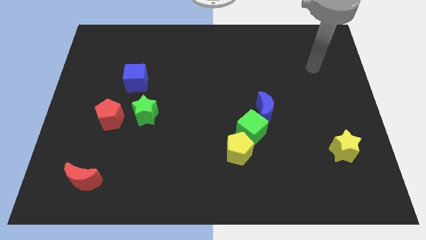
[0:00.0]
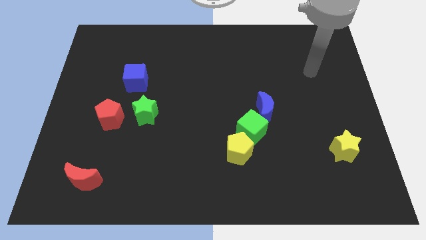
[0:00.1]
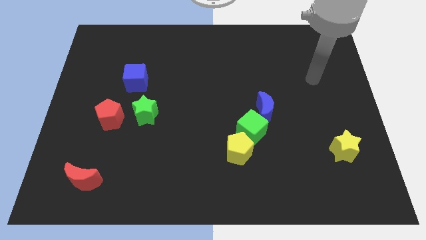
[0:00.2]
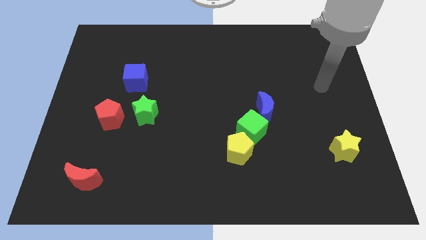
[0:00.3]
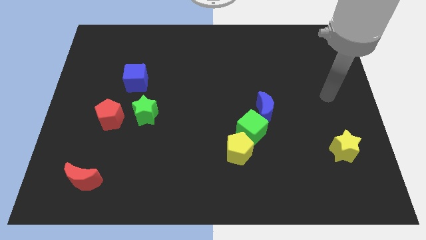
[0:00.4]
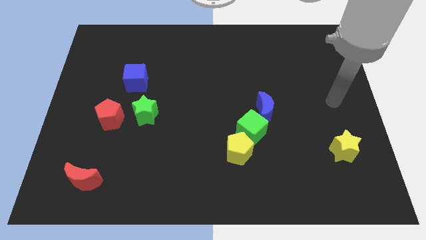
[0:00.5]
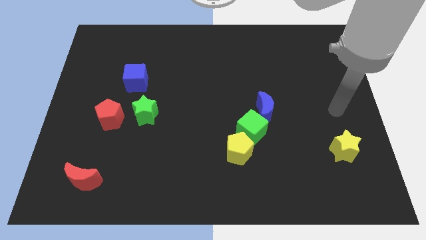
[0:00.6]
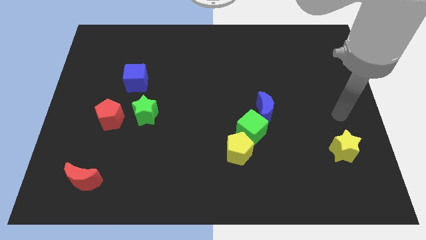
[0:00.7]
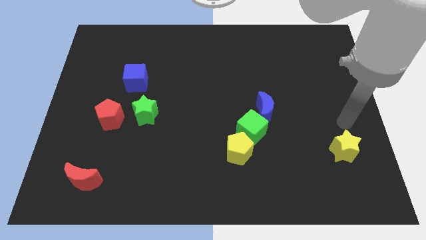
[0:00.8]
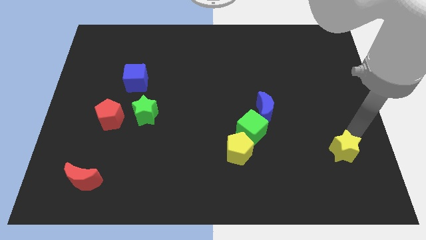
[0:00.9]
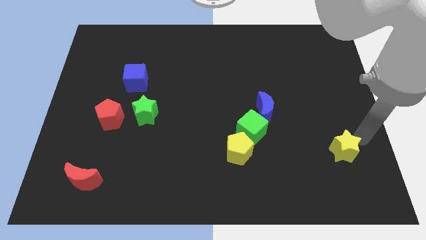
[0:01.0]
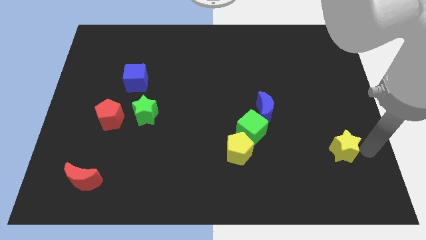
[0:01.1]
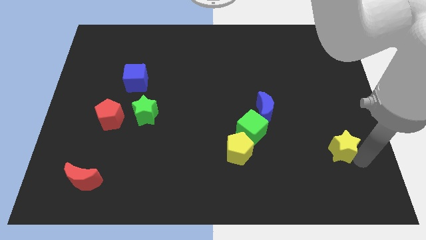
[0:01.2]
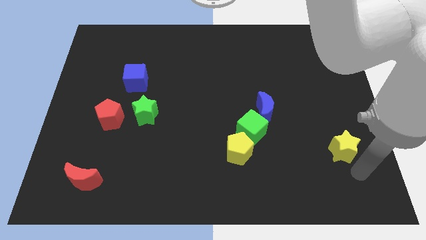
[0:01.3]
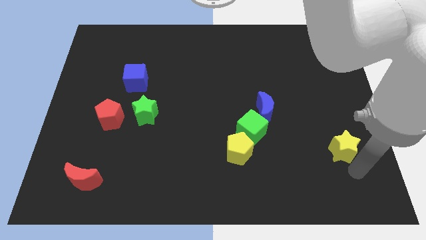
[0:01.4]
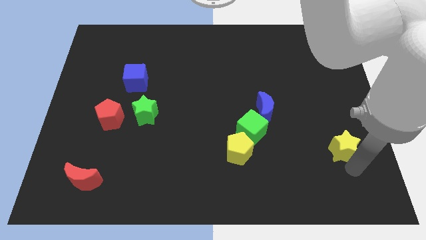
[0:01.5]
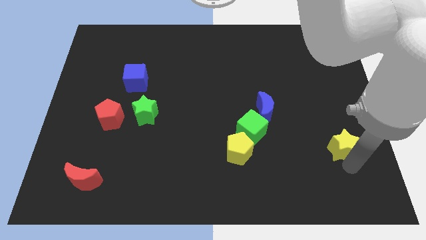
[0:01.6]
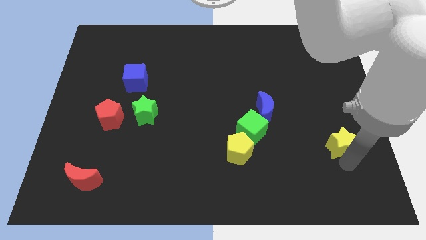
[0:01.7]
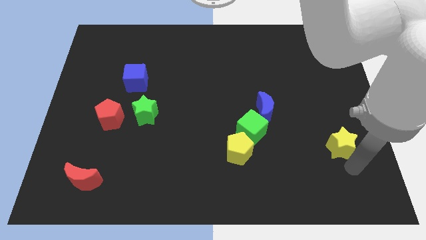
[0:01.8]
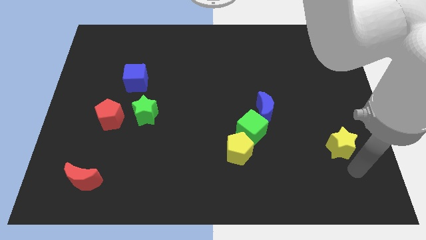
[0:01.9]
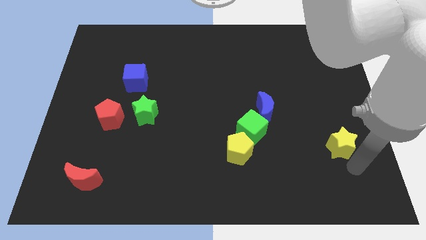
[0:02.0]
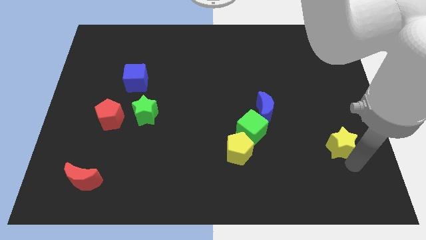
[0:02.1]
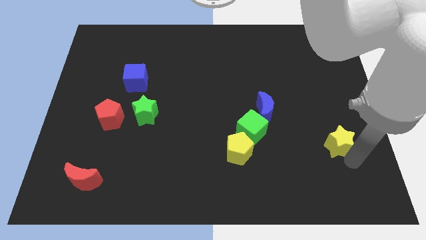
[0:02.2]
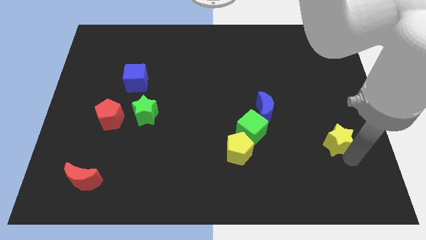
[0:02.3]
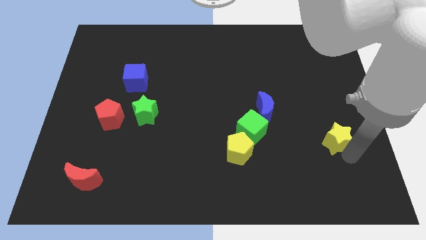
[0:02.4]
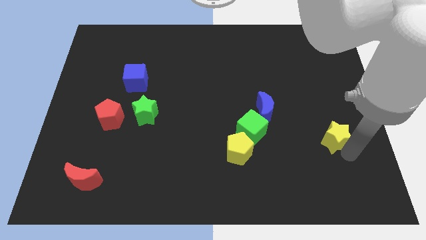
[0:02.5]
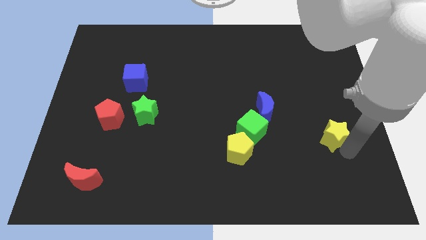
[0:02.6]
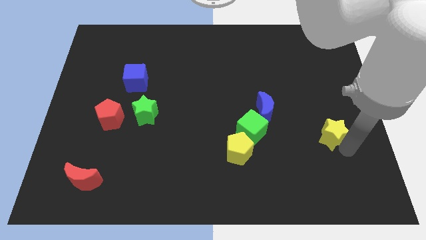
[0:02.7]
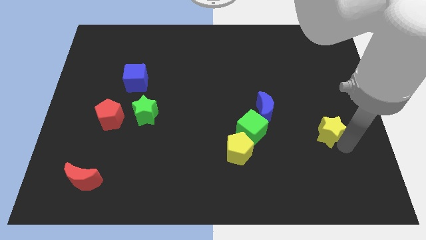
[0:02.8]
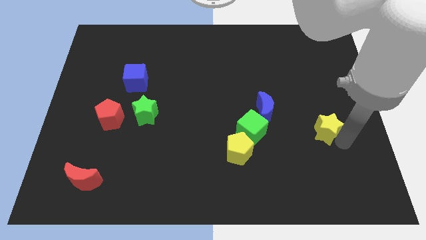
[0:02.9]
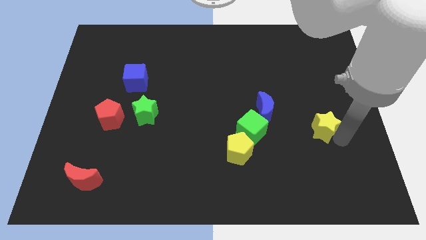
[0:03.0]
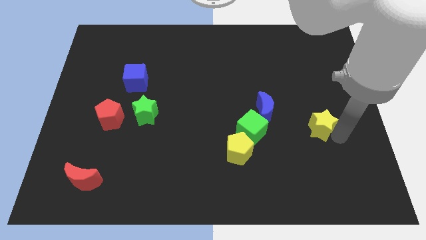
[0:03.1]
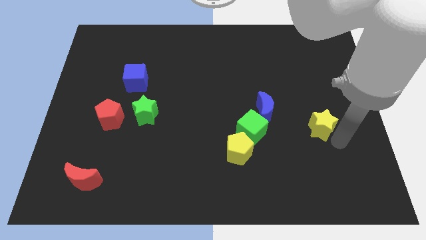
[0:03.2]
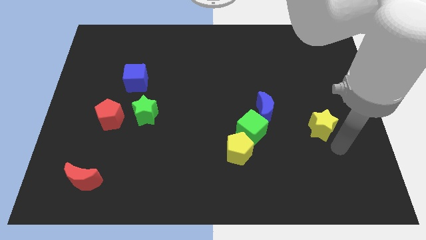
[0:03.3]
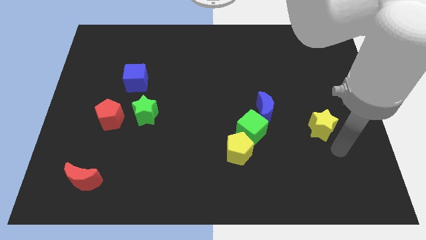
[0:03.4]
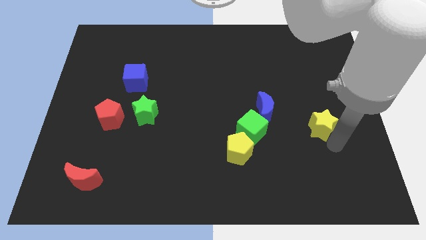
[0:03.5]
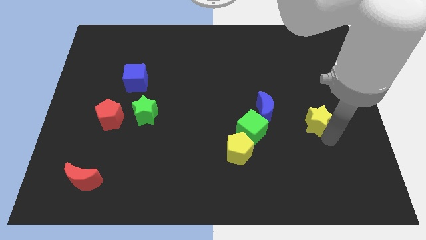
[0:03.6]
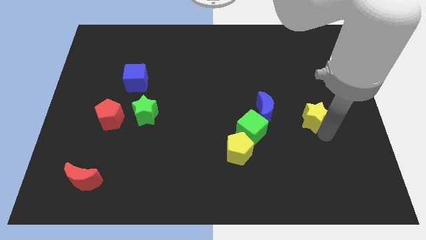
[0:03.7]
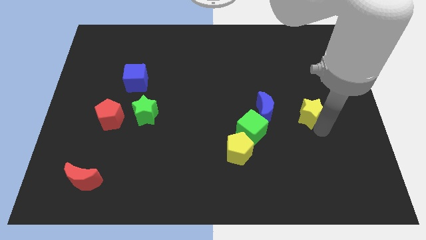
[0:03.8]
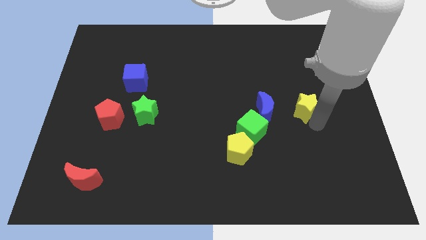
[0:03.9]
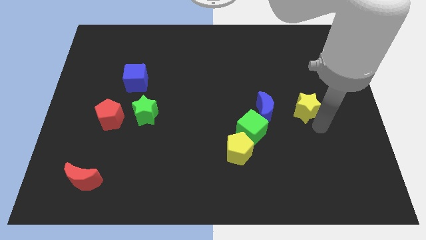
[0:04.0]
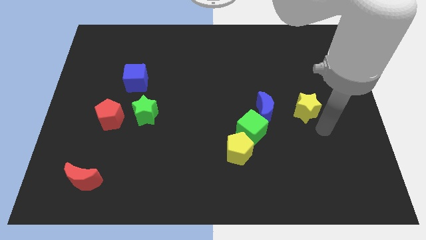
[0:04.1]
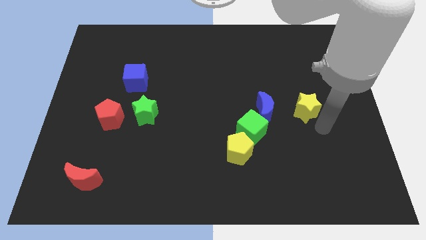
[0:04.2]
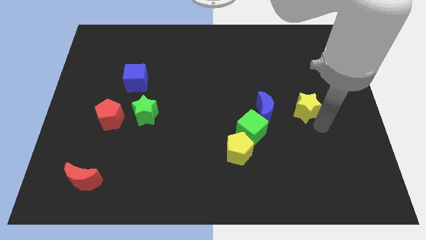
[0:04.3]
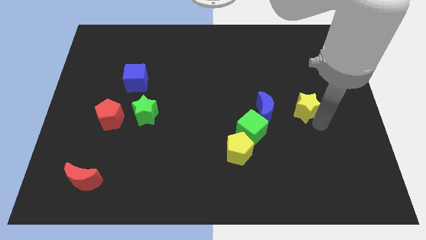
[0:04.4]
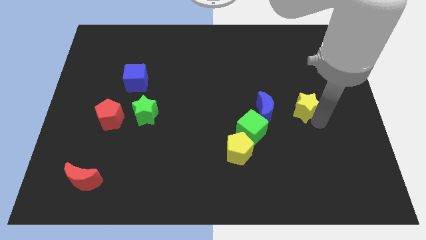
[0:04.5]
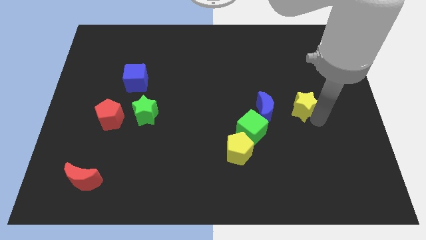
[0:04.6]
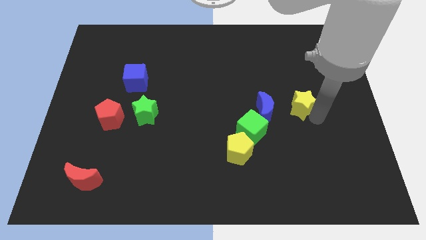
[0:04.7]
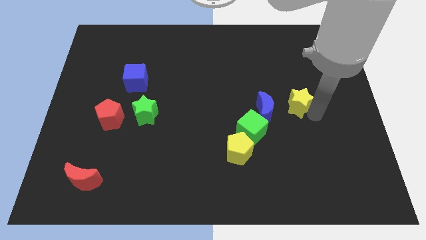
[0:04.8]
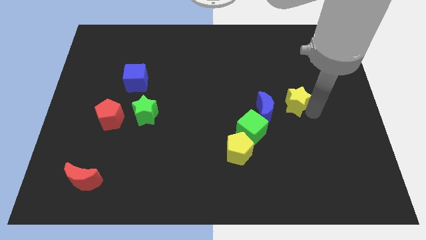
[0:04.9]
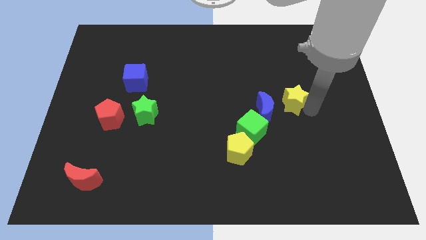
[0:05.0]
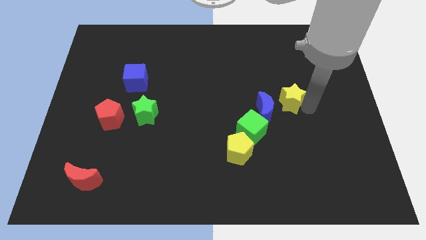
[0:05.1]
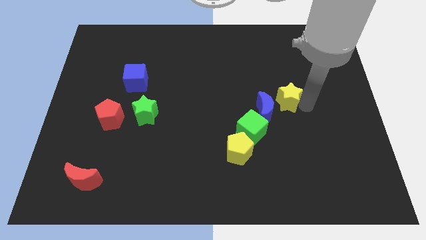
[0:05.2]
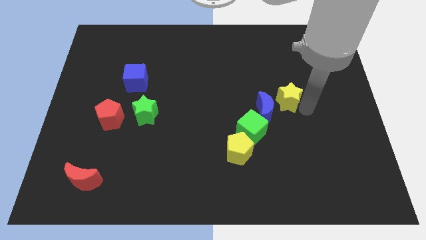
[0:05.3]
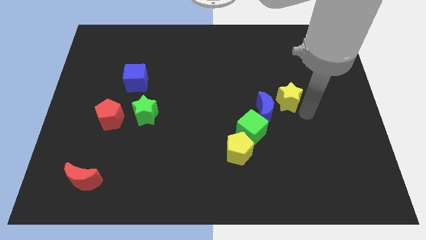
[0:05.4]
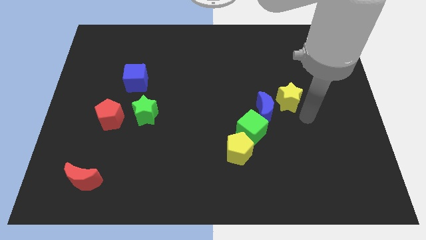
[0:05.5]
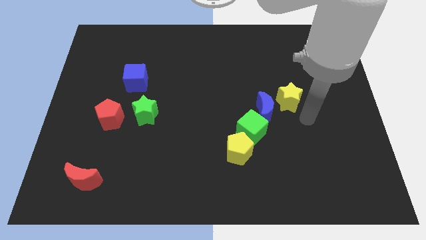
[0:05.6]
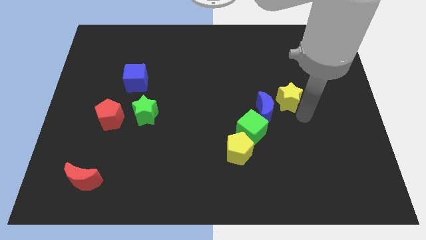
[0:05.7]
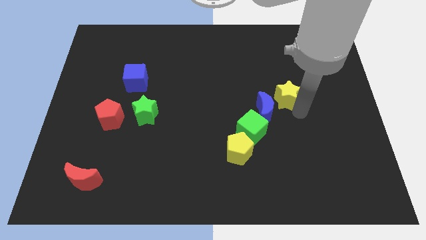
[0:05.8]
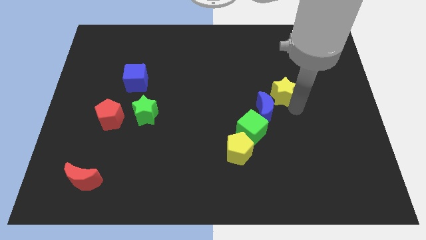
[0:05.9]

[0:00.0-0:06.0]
push the yellow star to the top of the blue moon

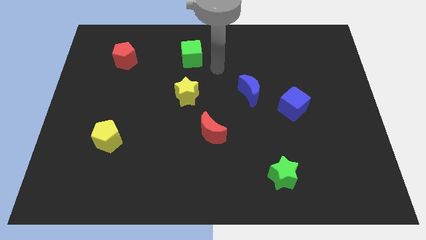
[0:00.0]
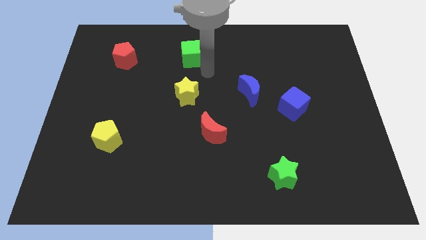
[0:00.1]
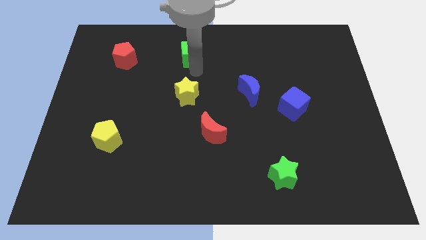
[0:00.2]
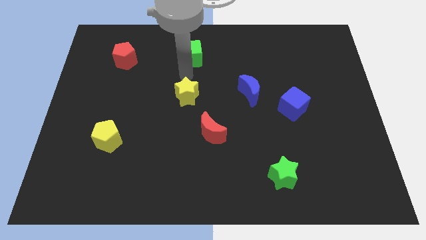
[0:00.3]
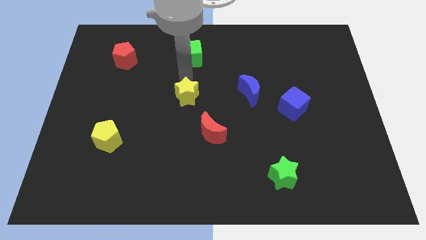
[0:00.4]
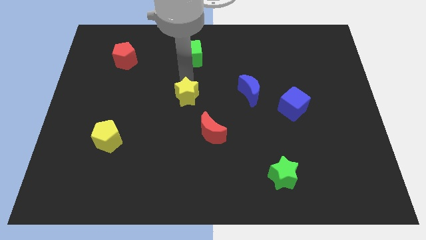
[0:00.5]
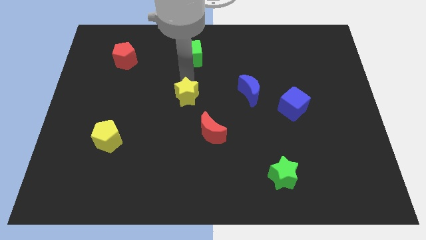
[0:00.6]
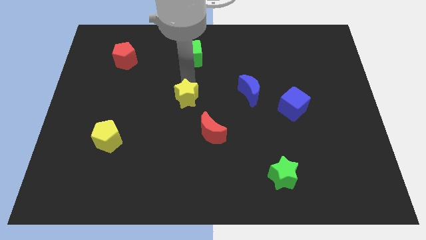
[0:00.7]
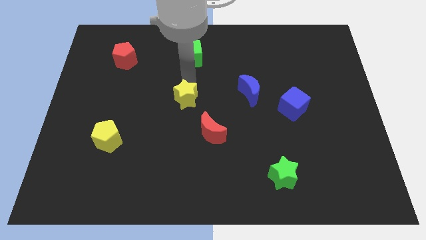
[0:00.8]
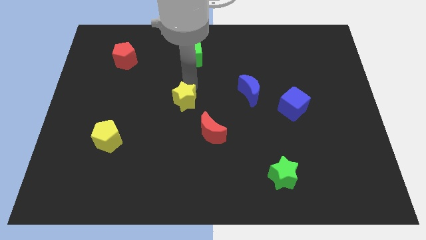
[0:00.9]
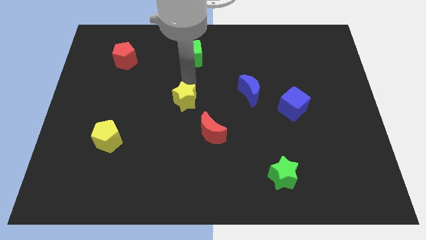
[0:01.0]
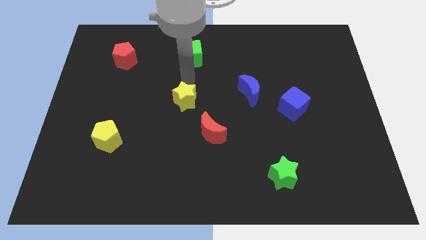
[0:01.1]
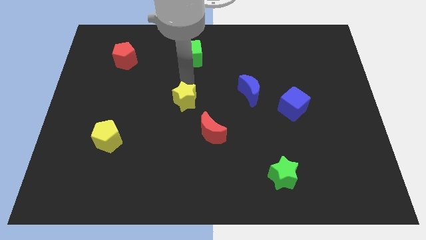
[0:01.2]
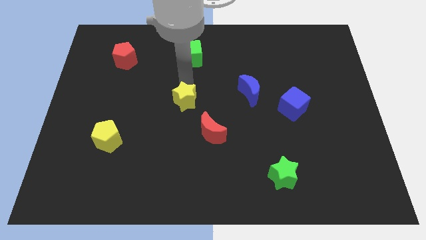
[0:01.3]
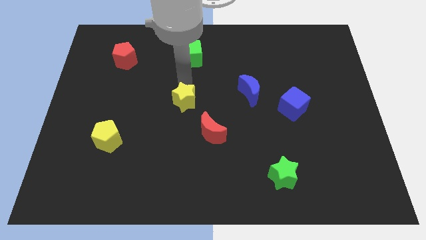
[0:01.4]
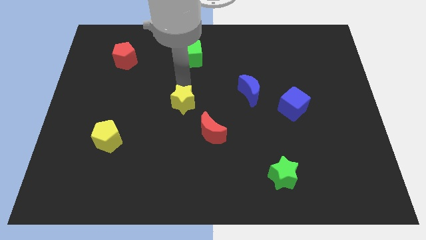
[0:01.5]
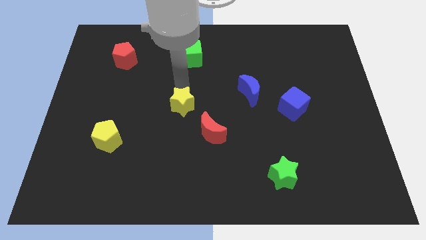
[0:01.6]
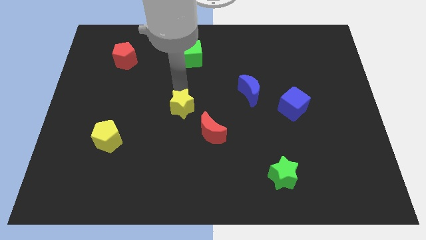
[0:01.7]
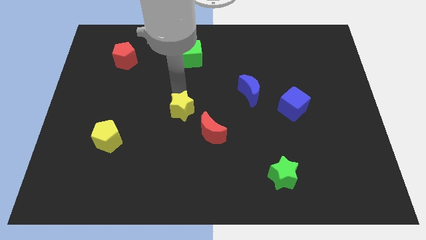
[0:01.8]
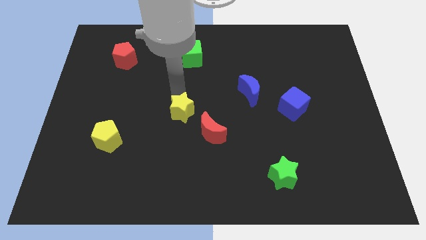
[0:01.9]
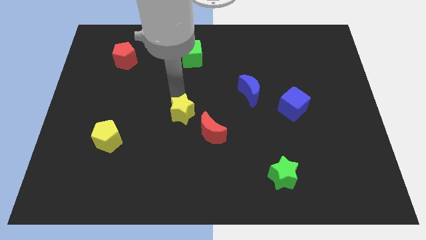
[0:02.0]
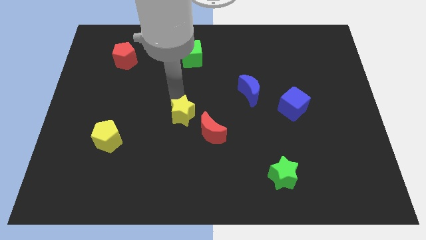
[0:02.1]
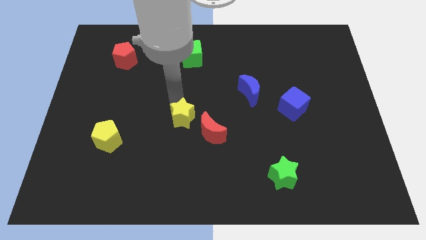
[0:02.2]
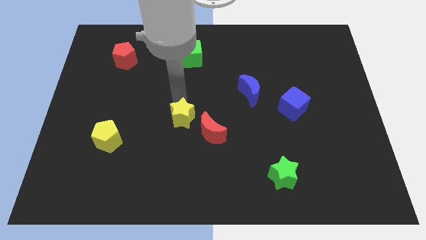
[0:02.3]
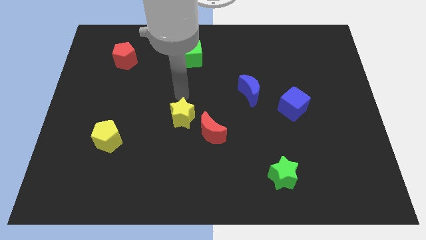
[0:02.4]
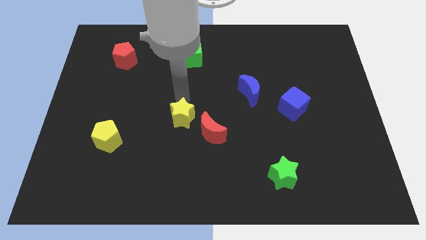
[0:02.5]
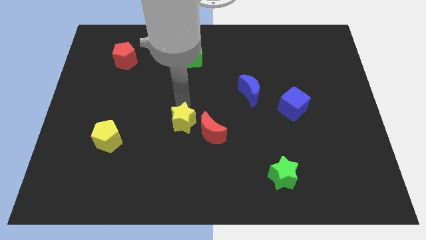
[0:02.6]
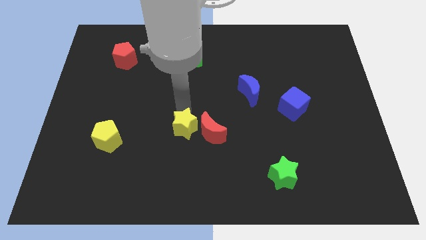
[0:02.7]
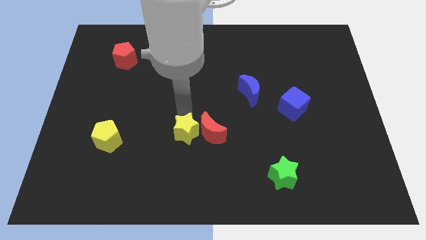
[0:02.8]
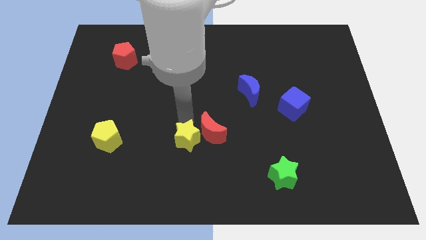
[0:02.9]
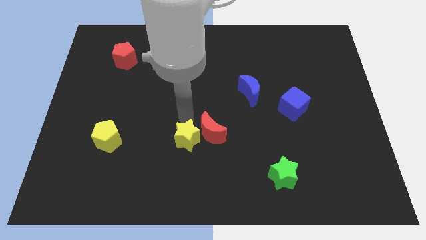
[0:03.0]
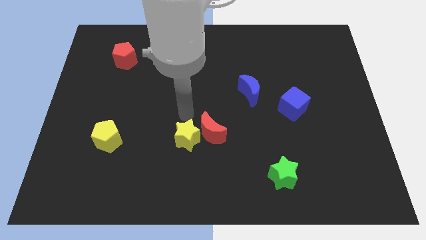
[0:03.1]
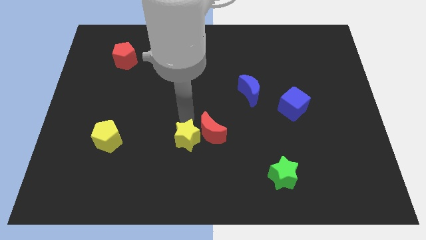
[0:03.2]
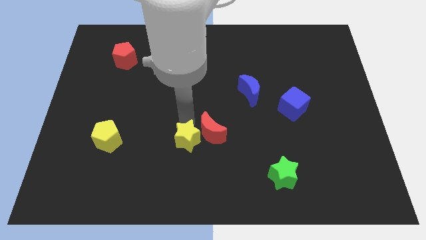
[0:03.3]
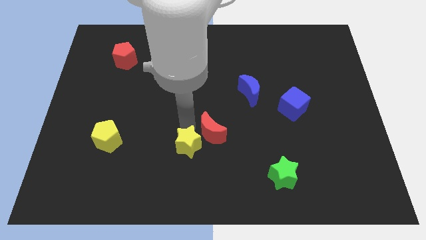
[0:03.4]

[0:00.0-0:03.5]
move the yellow star below the red moon
